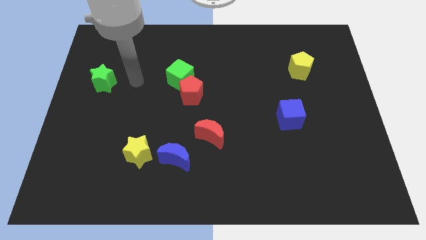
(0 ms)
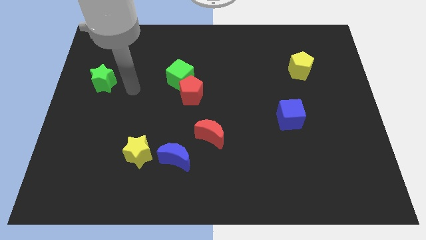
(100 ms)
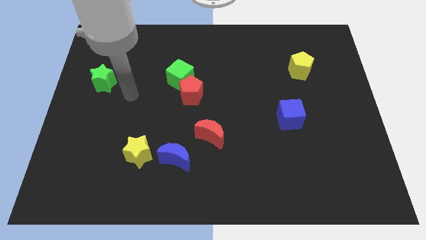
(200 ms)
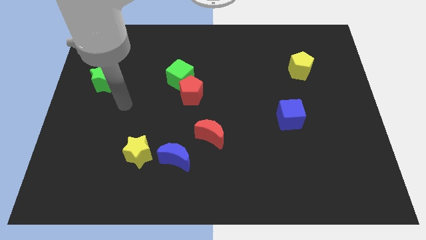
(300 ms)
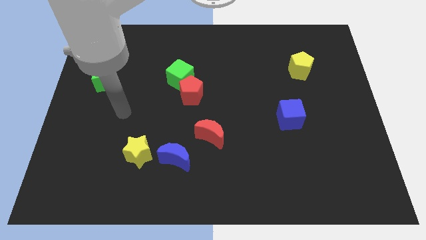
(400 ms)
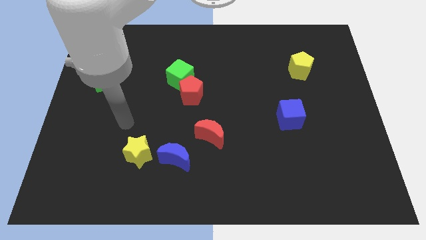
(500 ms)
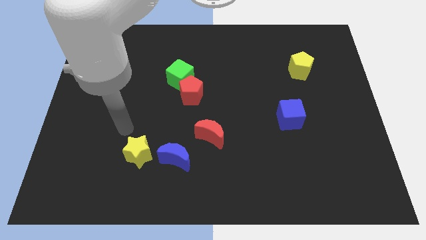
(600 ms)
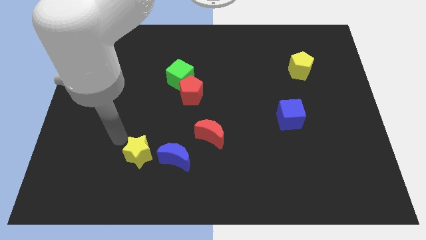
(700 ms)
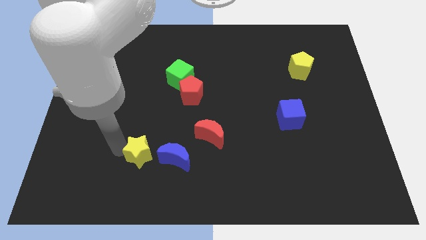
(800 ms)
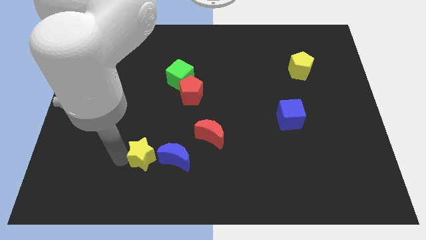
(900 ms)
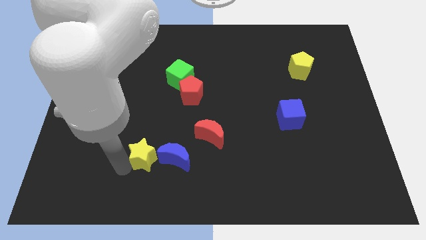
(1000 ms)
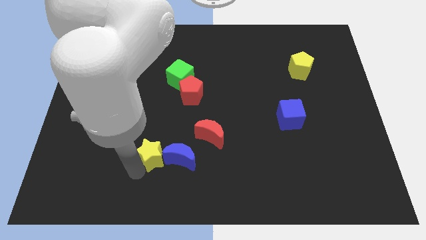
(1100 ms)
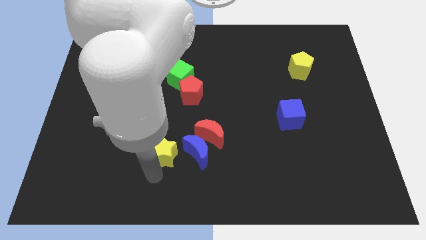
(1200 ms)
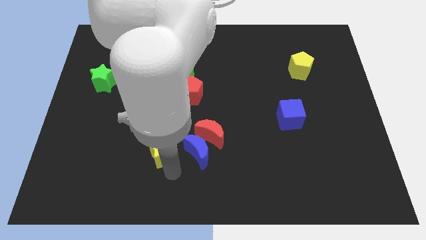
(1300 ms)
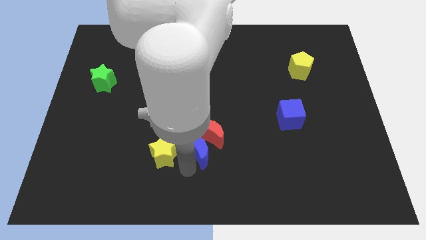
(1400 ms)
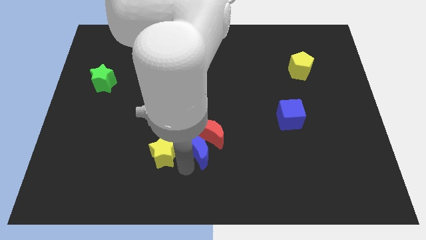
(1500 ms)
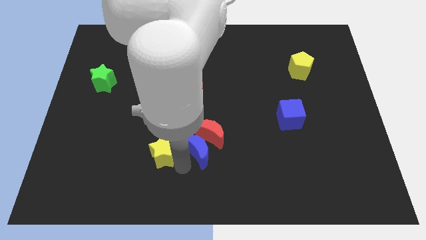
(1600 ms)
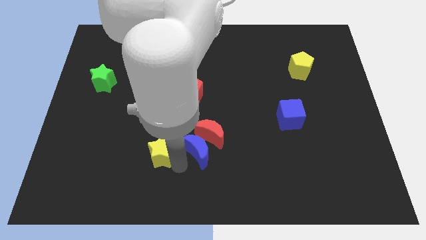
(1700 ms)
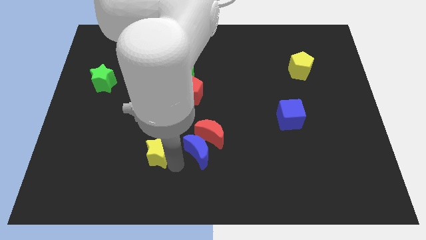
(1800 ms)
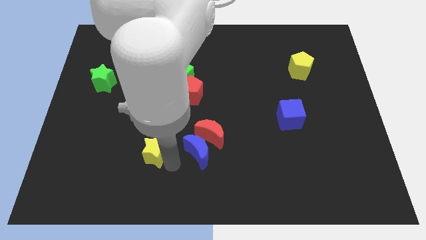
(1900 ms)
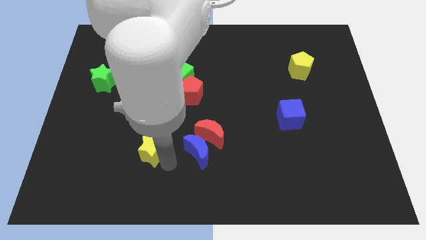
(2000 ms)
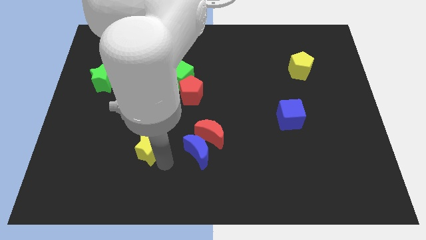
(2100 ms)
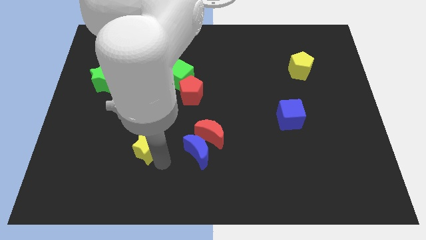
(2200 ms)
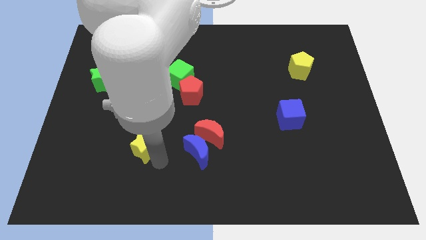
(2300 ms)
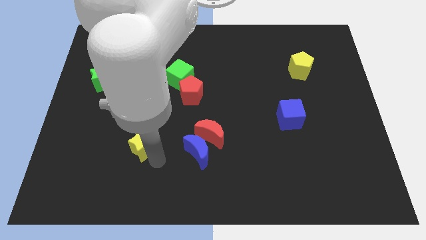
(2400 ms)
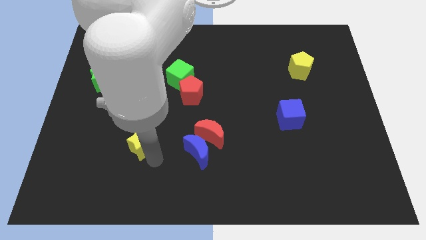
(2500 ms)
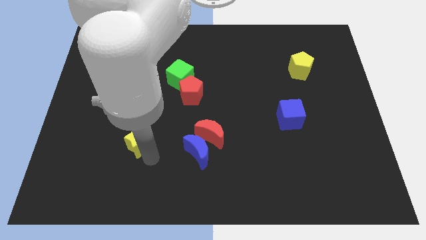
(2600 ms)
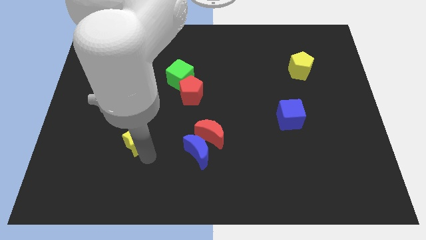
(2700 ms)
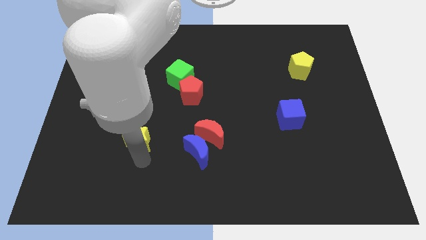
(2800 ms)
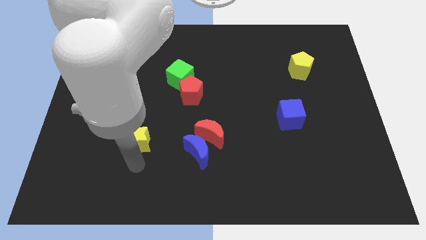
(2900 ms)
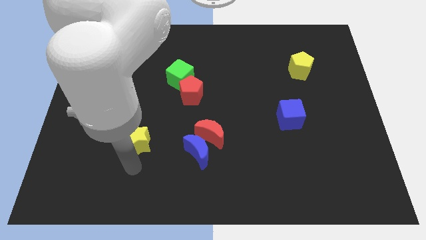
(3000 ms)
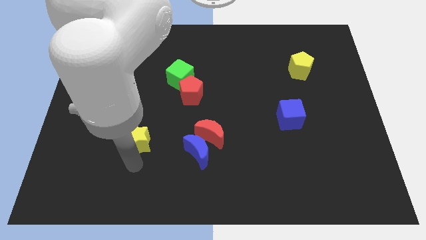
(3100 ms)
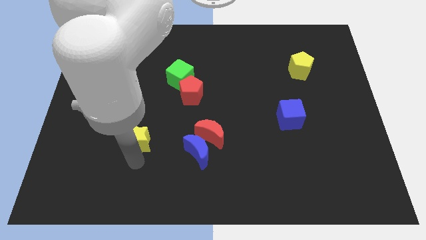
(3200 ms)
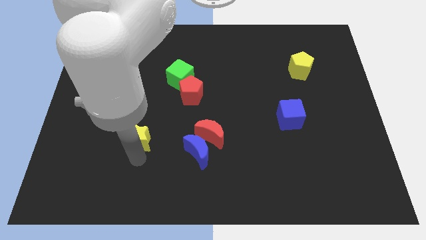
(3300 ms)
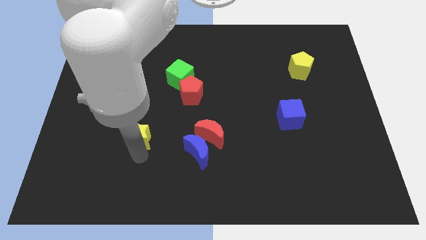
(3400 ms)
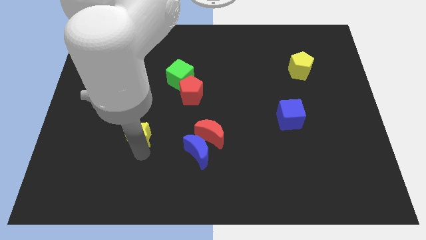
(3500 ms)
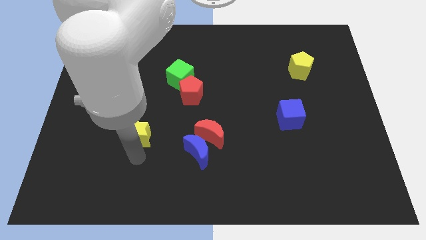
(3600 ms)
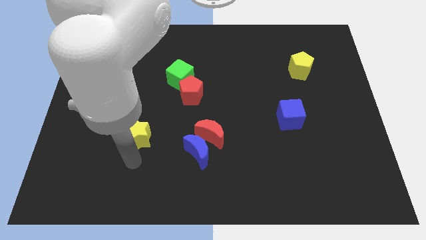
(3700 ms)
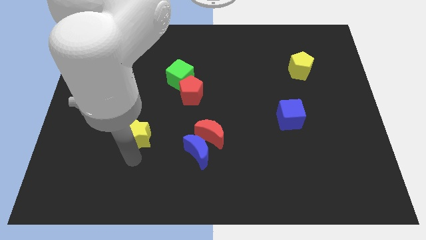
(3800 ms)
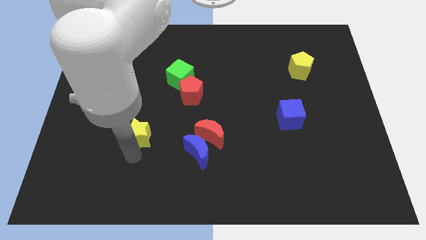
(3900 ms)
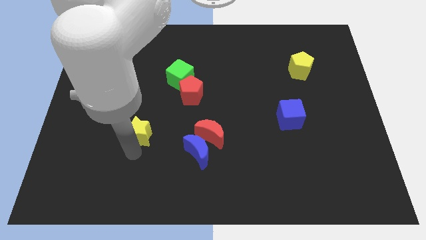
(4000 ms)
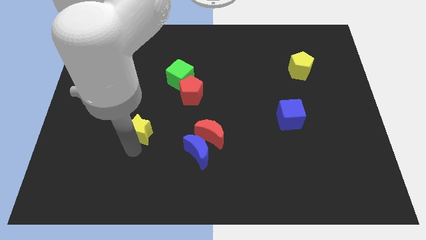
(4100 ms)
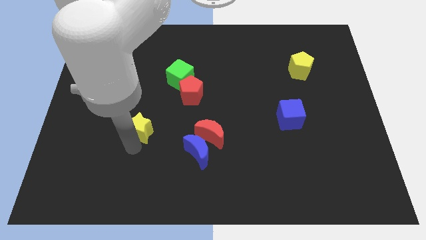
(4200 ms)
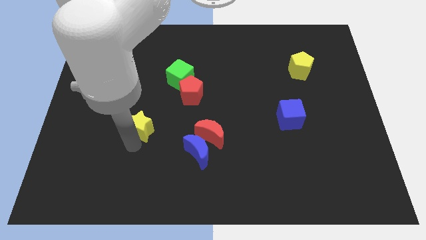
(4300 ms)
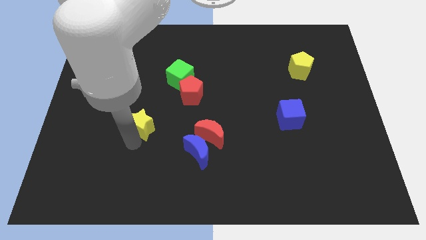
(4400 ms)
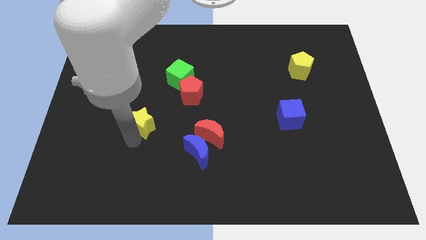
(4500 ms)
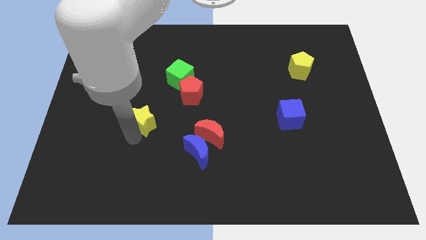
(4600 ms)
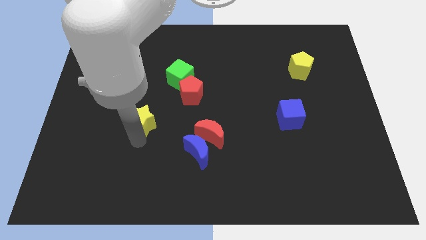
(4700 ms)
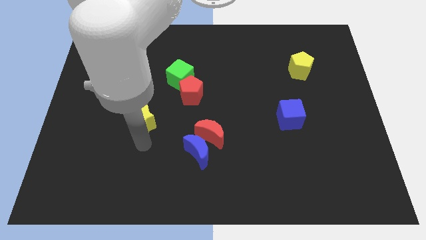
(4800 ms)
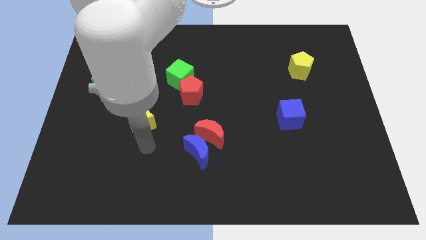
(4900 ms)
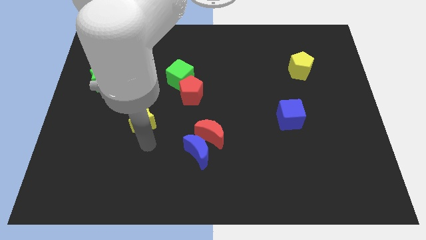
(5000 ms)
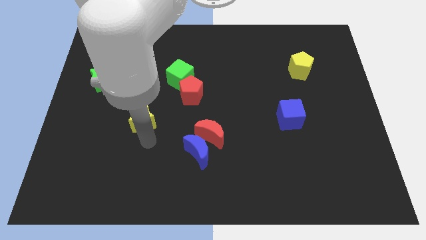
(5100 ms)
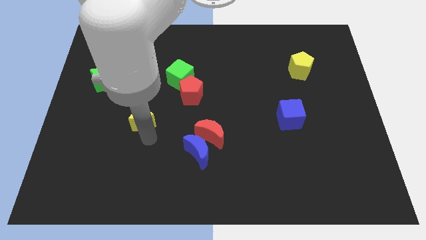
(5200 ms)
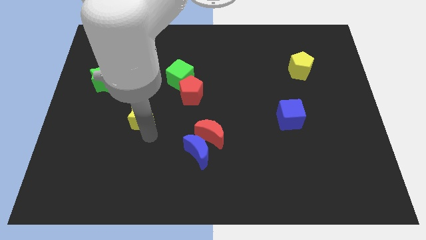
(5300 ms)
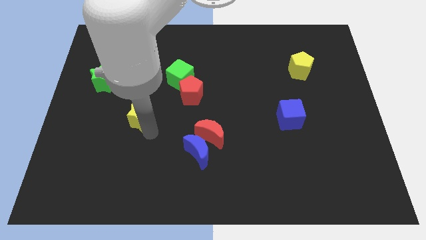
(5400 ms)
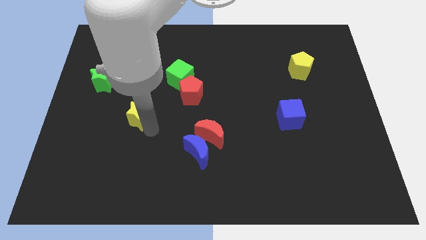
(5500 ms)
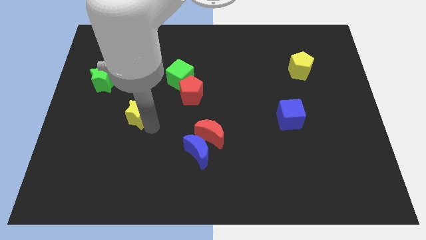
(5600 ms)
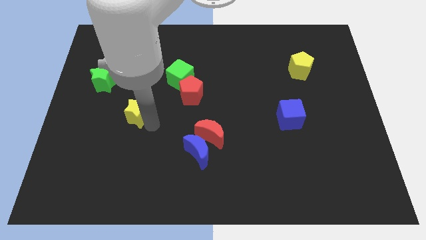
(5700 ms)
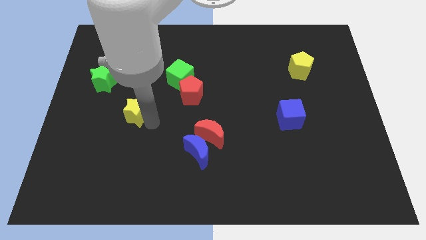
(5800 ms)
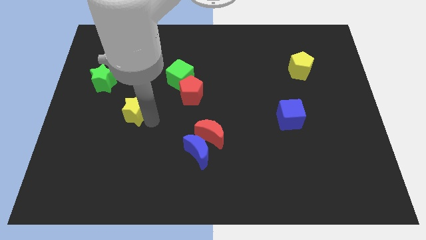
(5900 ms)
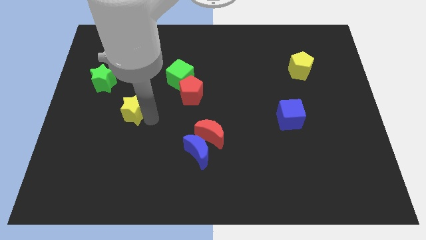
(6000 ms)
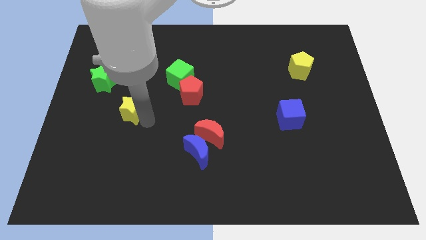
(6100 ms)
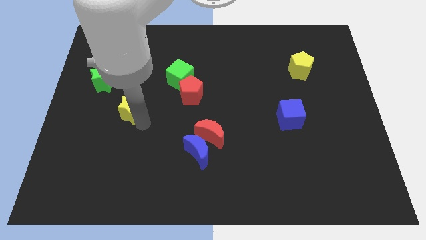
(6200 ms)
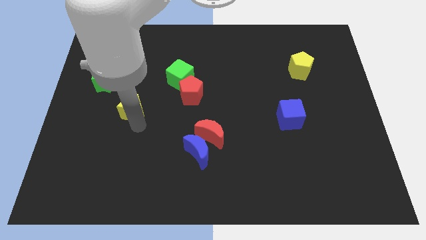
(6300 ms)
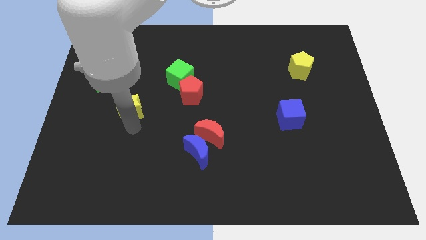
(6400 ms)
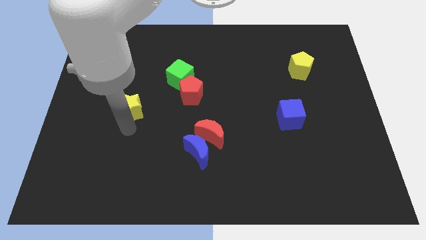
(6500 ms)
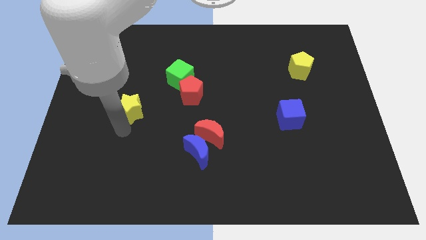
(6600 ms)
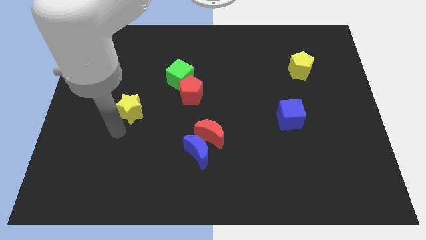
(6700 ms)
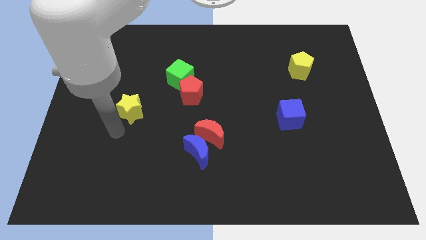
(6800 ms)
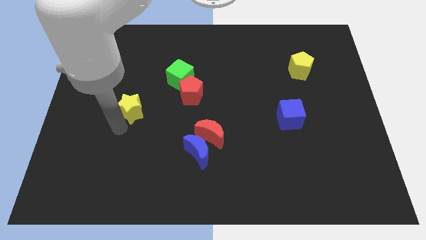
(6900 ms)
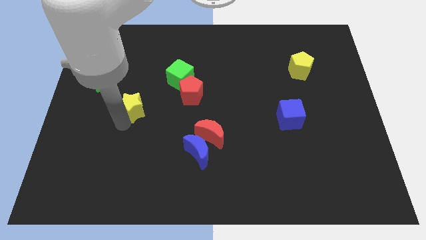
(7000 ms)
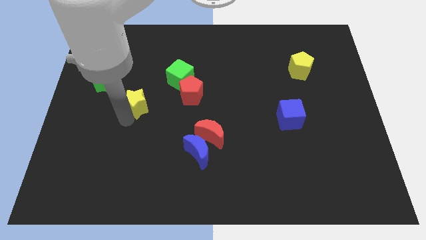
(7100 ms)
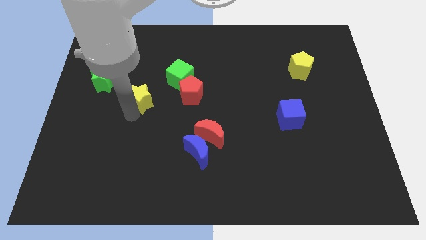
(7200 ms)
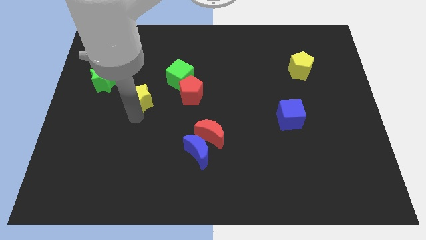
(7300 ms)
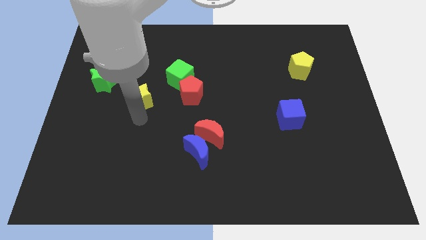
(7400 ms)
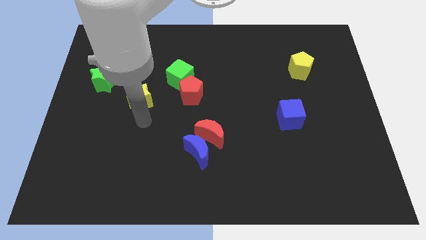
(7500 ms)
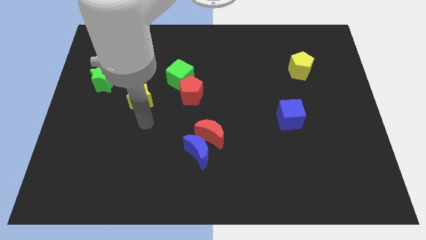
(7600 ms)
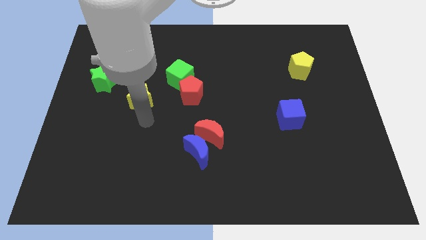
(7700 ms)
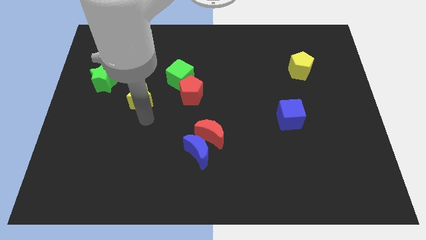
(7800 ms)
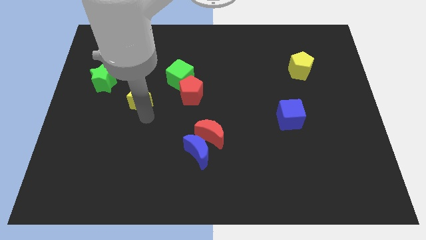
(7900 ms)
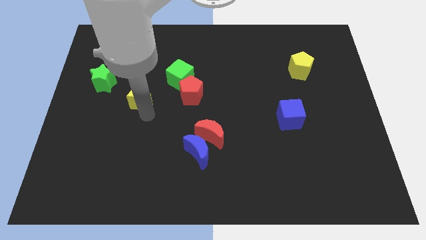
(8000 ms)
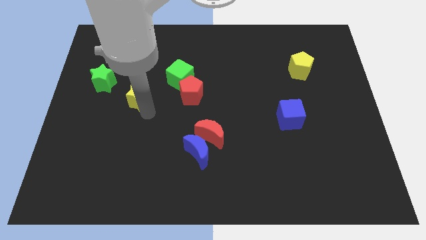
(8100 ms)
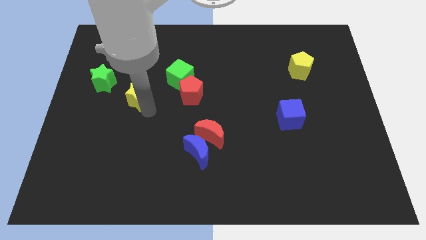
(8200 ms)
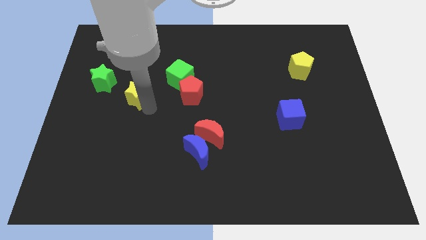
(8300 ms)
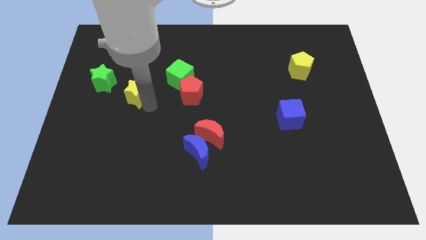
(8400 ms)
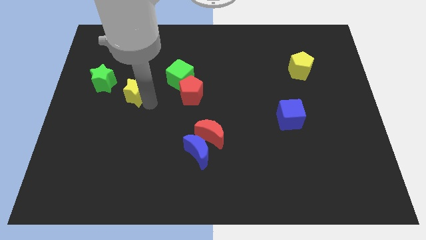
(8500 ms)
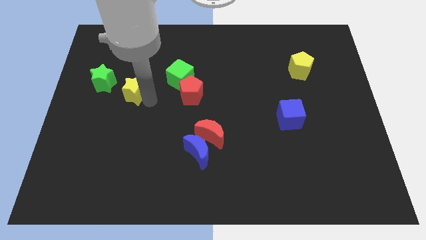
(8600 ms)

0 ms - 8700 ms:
push the yellow star to the left side of the green cube
